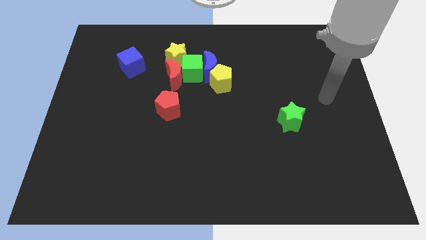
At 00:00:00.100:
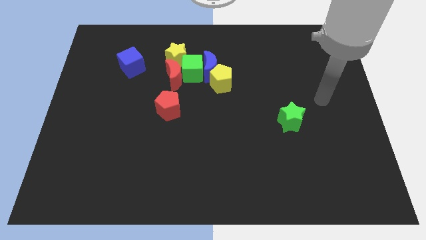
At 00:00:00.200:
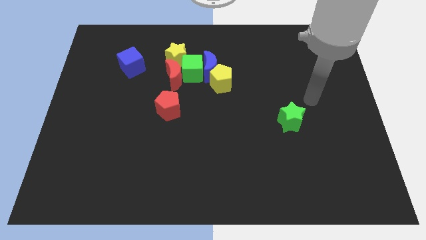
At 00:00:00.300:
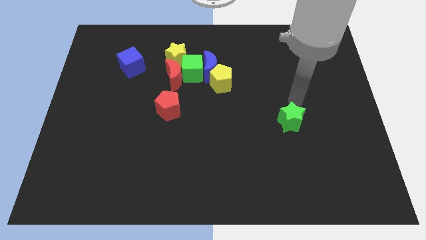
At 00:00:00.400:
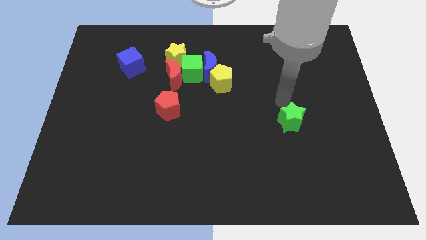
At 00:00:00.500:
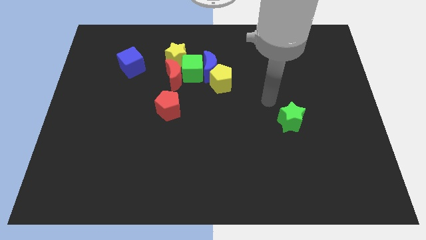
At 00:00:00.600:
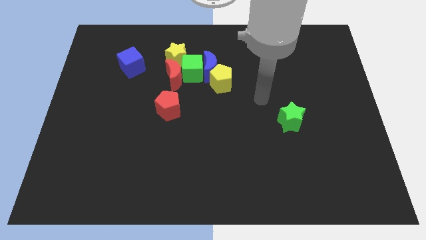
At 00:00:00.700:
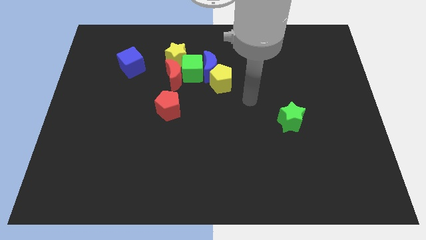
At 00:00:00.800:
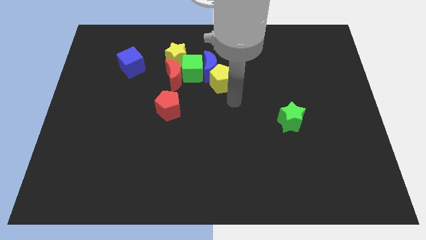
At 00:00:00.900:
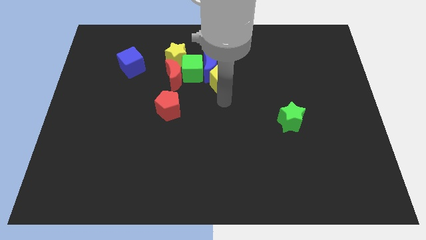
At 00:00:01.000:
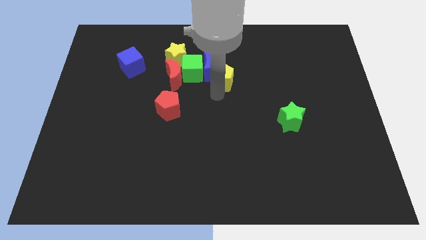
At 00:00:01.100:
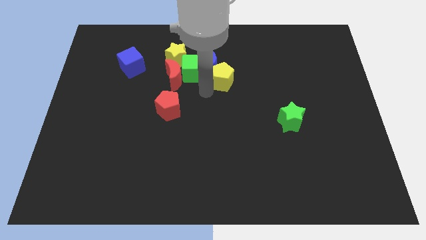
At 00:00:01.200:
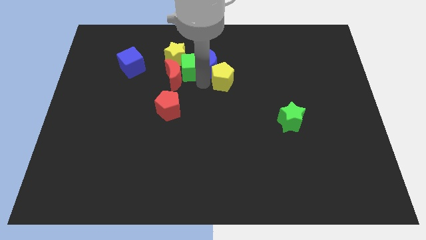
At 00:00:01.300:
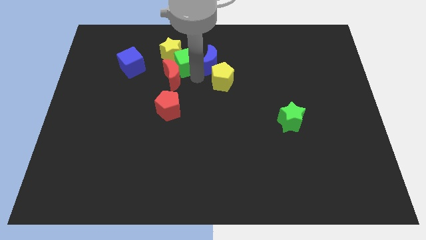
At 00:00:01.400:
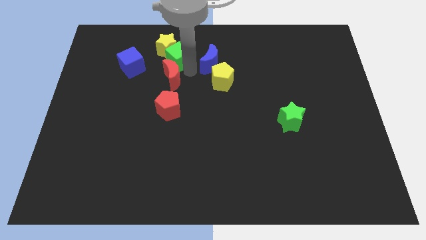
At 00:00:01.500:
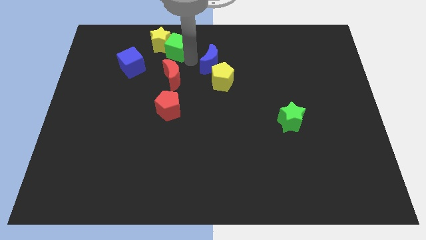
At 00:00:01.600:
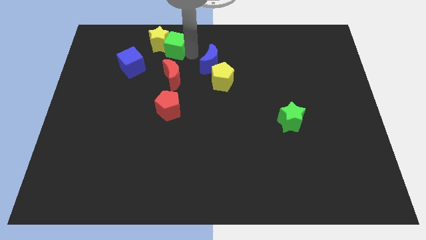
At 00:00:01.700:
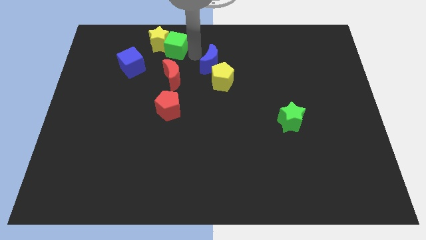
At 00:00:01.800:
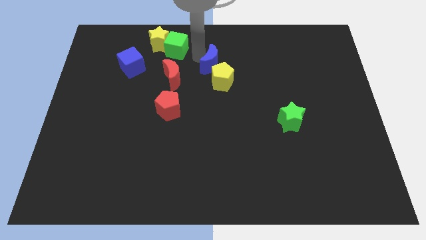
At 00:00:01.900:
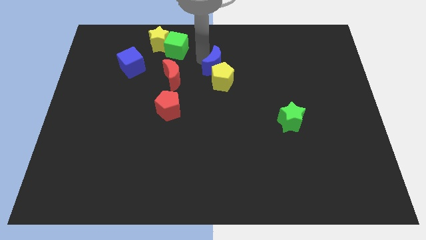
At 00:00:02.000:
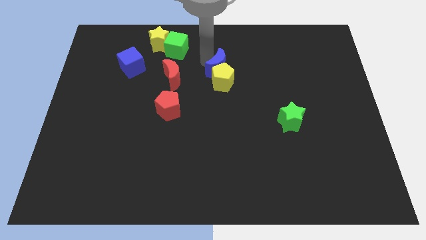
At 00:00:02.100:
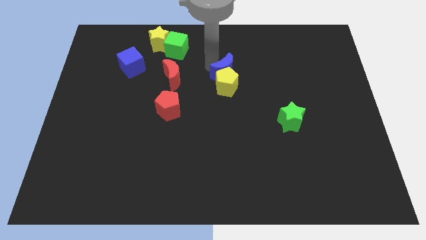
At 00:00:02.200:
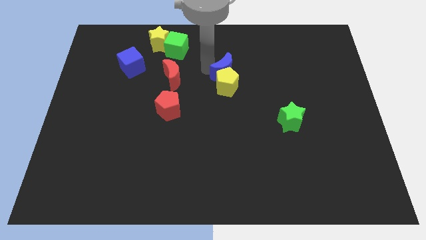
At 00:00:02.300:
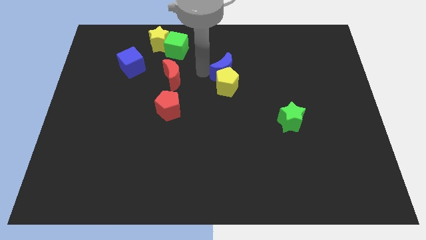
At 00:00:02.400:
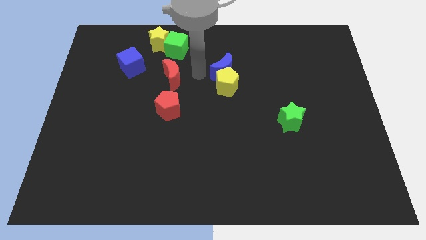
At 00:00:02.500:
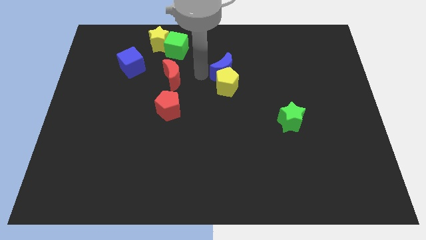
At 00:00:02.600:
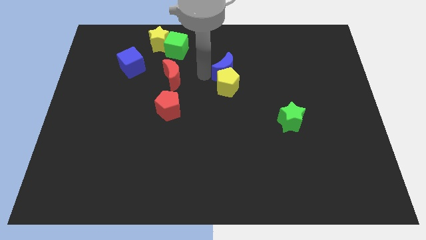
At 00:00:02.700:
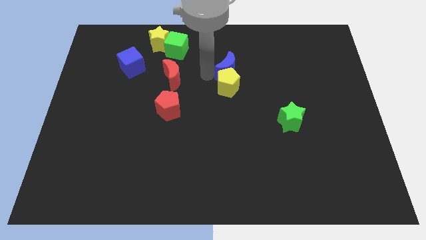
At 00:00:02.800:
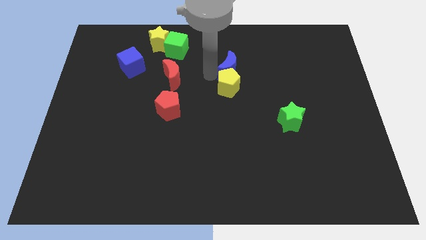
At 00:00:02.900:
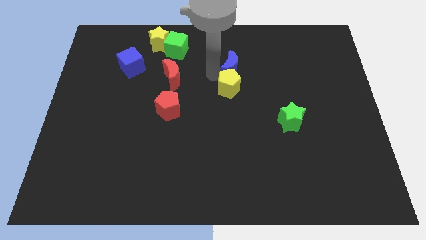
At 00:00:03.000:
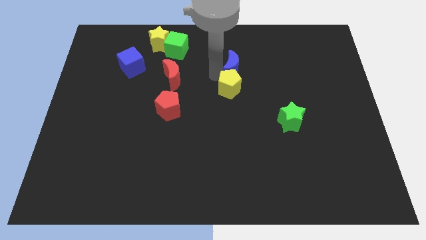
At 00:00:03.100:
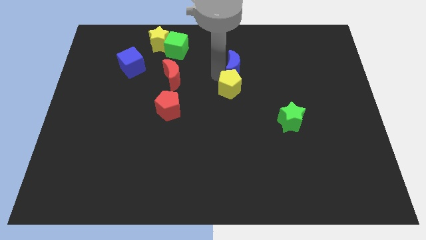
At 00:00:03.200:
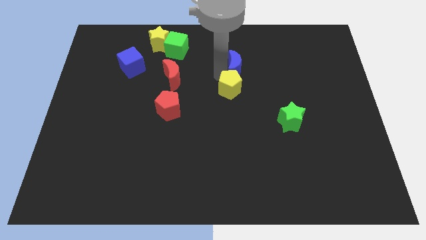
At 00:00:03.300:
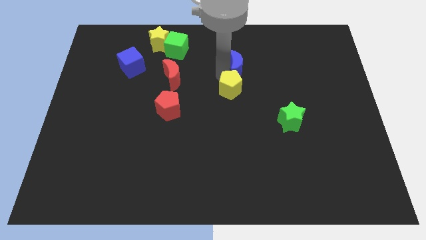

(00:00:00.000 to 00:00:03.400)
slightly push the blue moon to the right

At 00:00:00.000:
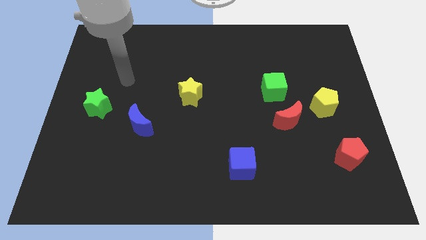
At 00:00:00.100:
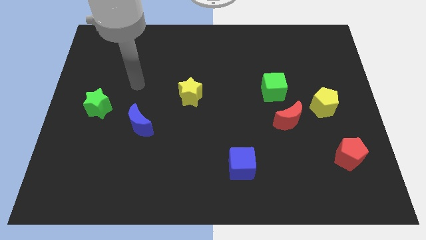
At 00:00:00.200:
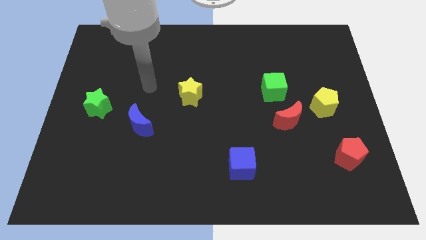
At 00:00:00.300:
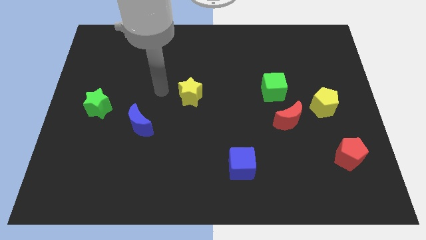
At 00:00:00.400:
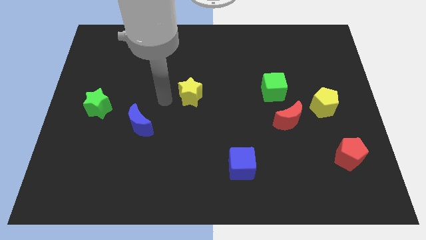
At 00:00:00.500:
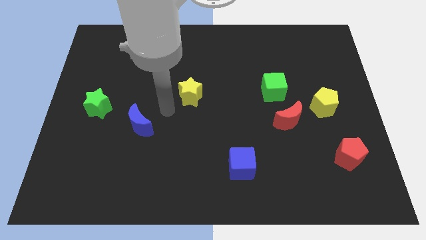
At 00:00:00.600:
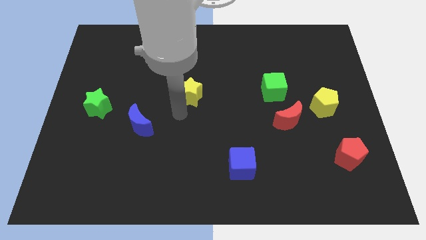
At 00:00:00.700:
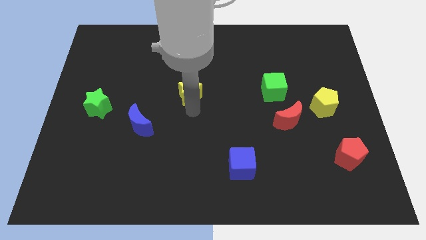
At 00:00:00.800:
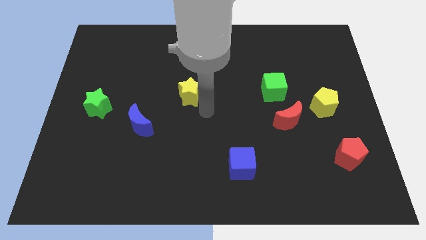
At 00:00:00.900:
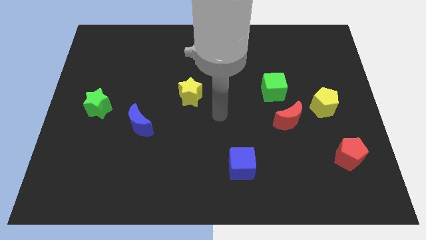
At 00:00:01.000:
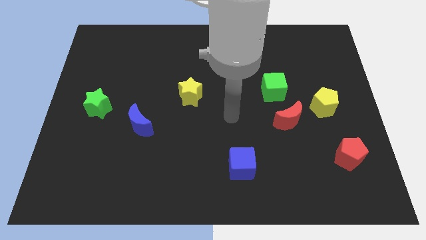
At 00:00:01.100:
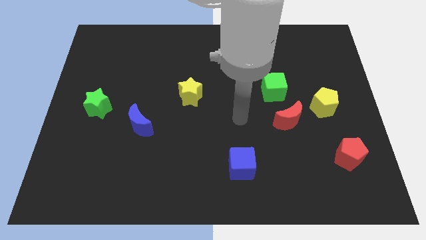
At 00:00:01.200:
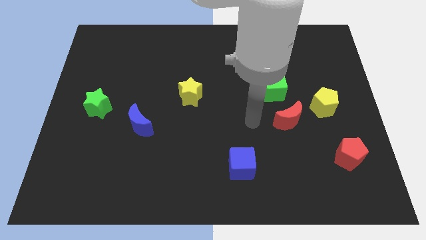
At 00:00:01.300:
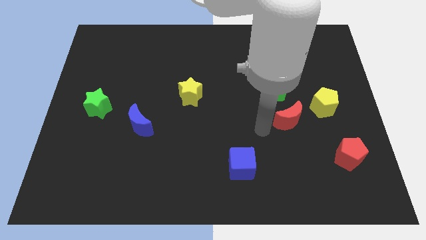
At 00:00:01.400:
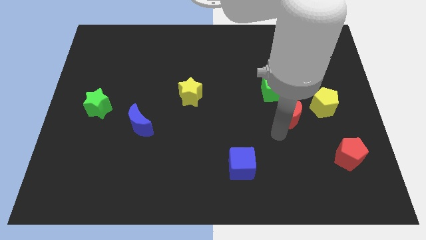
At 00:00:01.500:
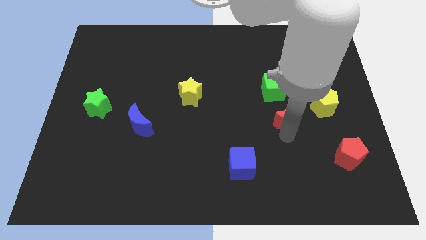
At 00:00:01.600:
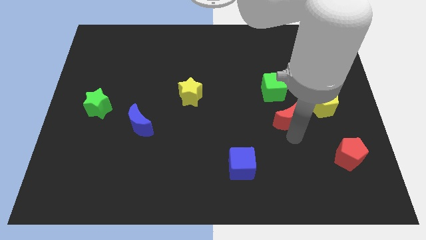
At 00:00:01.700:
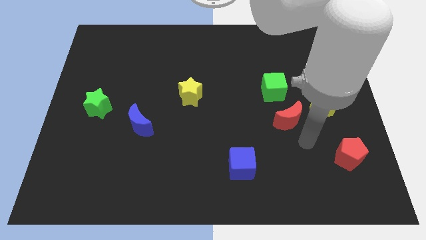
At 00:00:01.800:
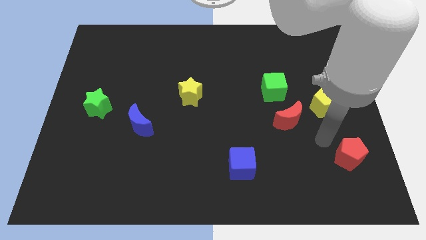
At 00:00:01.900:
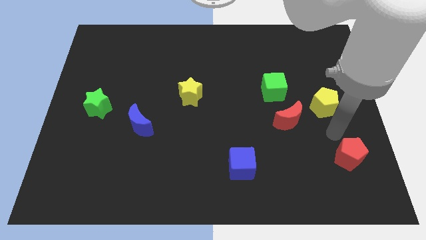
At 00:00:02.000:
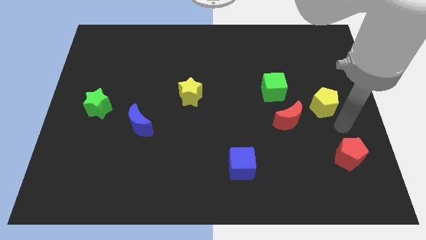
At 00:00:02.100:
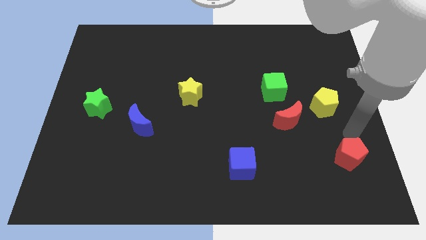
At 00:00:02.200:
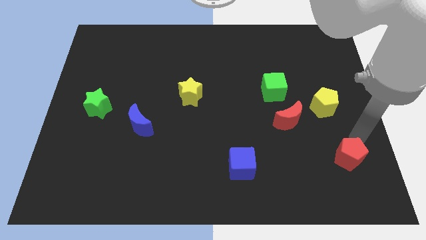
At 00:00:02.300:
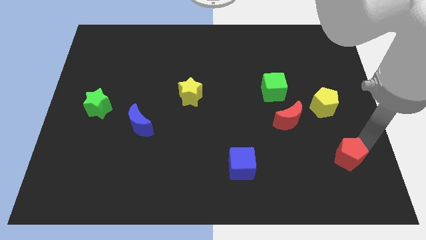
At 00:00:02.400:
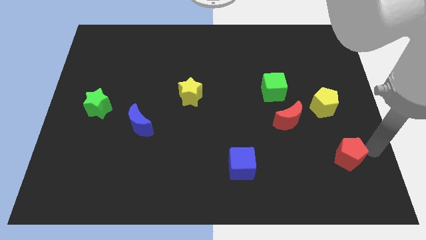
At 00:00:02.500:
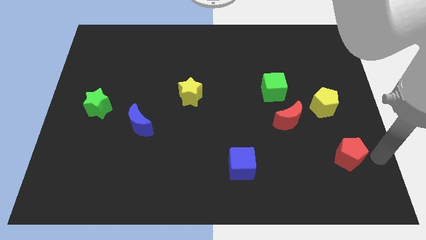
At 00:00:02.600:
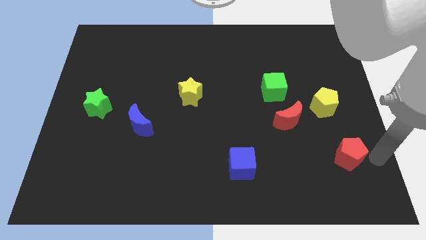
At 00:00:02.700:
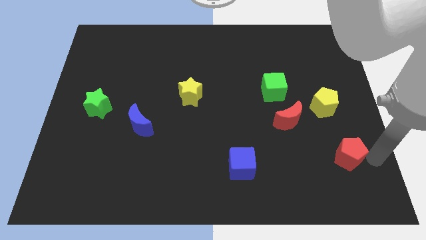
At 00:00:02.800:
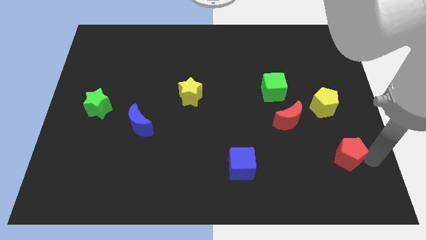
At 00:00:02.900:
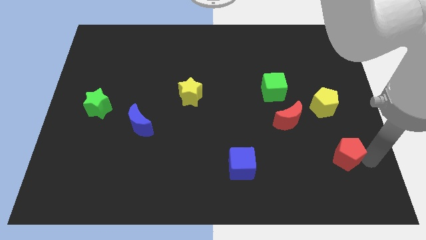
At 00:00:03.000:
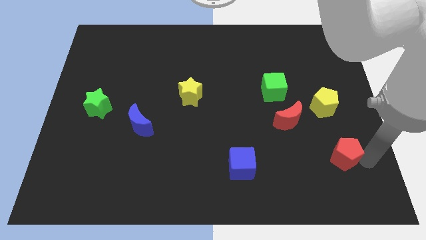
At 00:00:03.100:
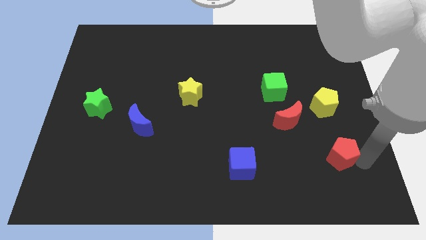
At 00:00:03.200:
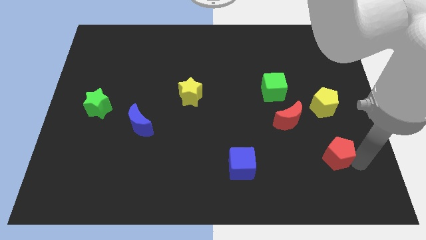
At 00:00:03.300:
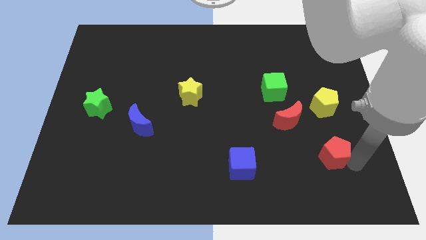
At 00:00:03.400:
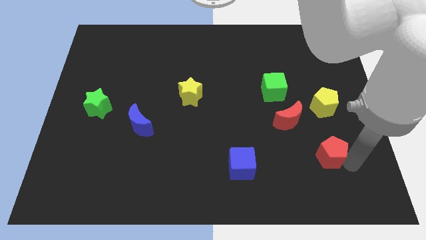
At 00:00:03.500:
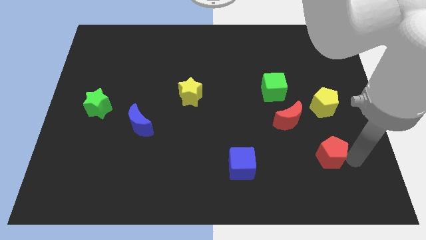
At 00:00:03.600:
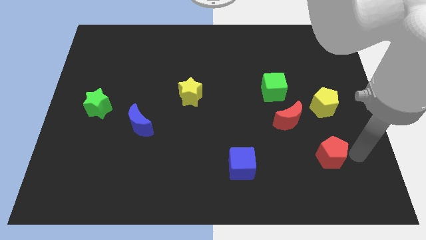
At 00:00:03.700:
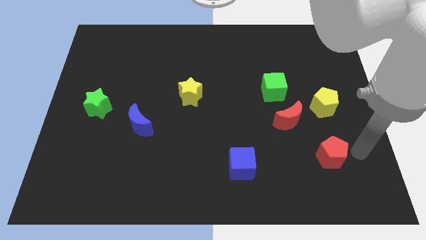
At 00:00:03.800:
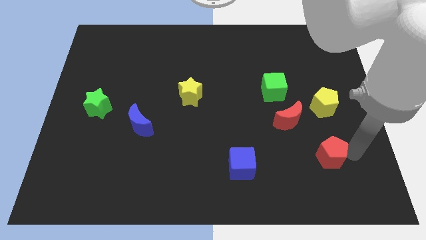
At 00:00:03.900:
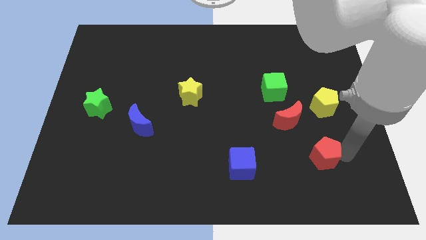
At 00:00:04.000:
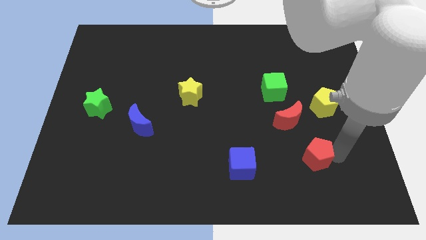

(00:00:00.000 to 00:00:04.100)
slightly push the red pentagon to the left

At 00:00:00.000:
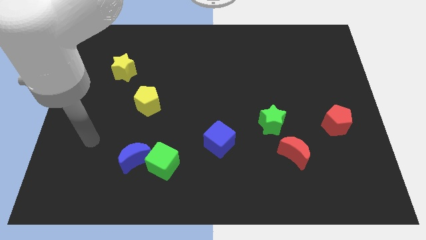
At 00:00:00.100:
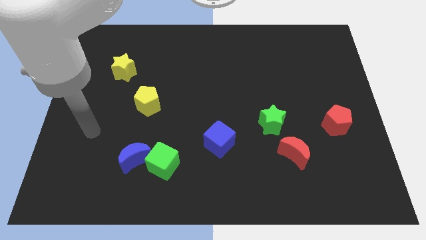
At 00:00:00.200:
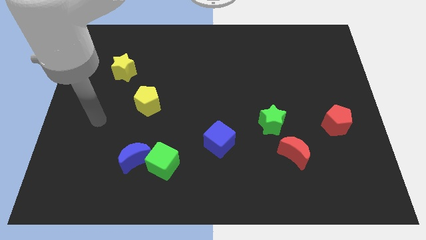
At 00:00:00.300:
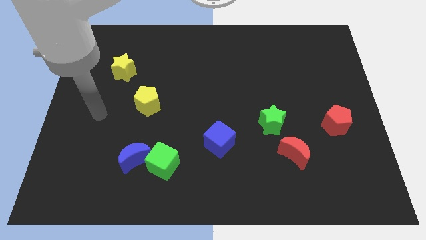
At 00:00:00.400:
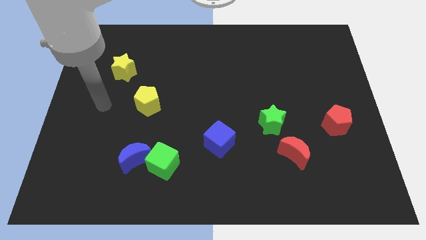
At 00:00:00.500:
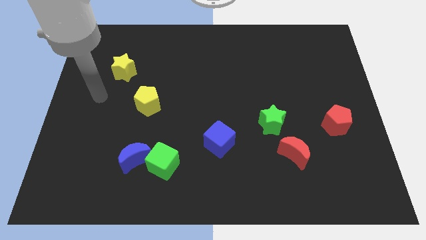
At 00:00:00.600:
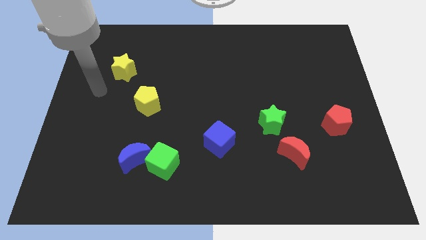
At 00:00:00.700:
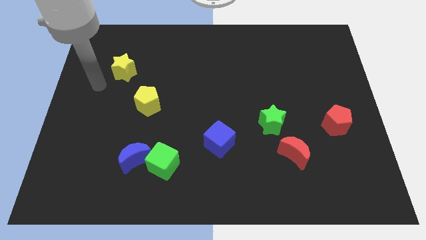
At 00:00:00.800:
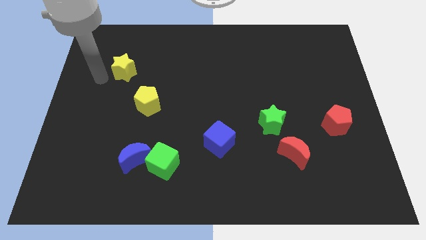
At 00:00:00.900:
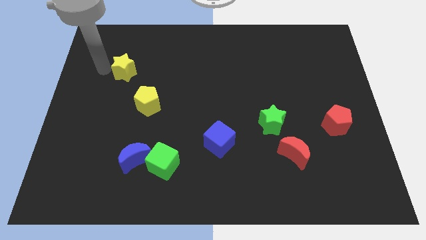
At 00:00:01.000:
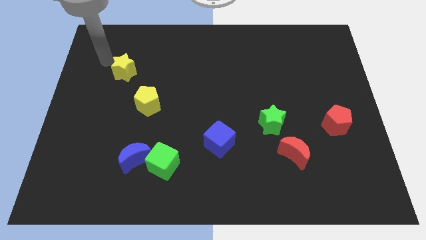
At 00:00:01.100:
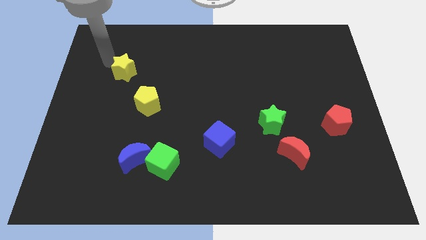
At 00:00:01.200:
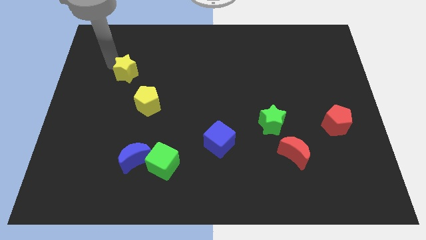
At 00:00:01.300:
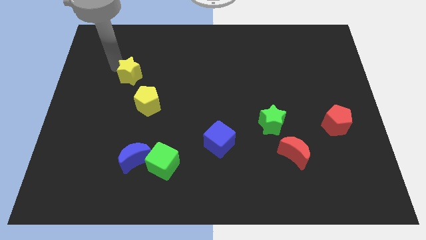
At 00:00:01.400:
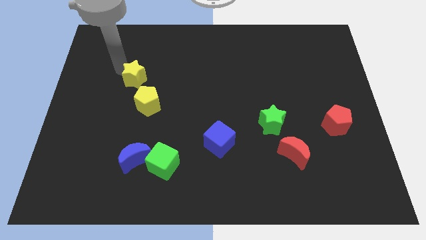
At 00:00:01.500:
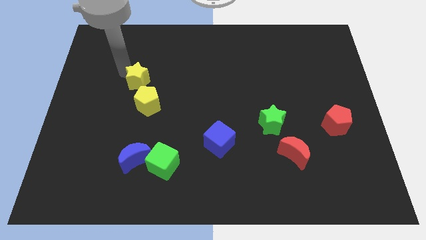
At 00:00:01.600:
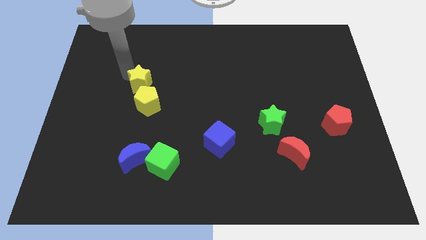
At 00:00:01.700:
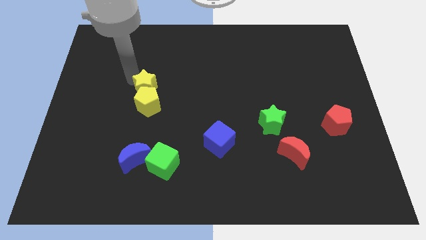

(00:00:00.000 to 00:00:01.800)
slide the yellow star slightly diagonally down and right
